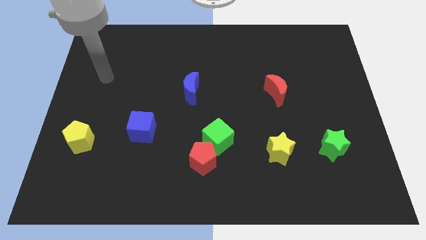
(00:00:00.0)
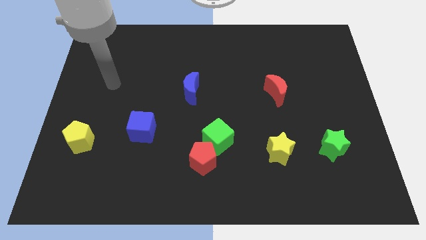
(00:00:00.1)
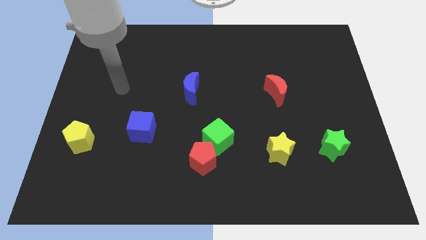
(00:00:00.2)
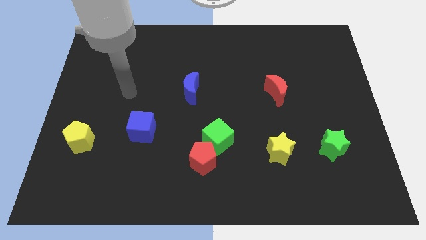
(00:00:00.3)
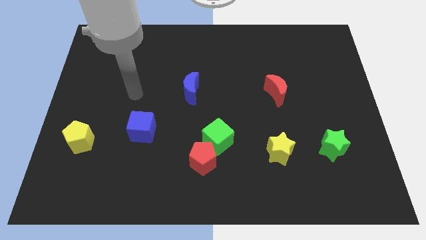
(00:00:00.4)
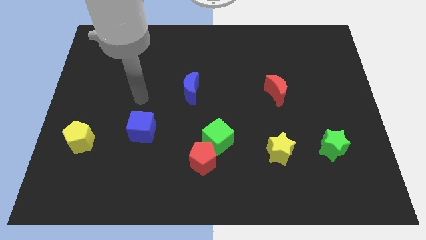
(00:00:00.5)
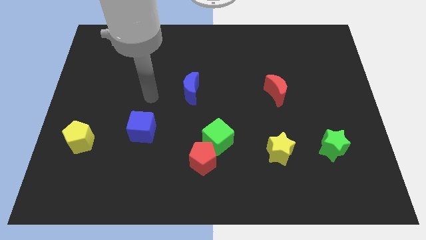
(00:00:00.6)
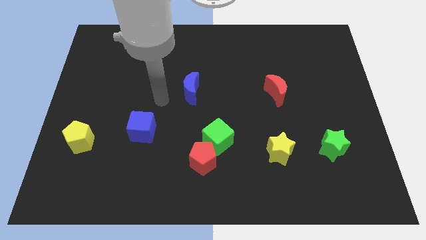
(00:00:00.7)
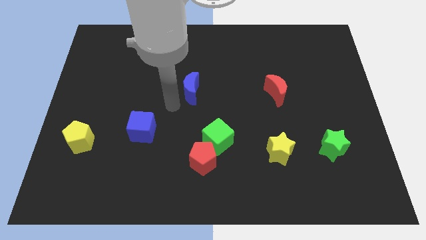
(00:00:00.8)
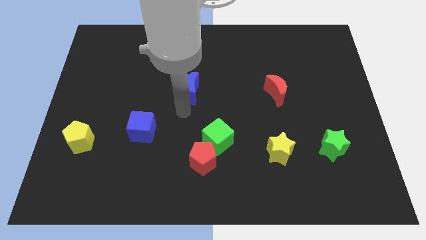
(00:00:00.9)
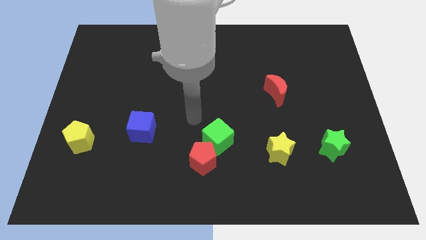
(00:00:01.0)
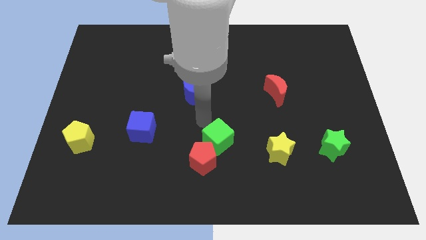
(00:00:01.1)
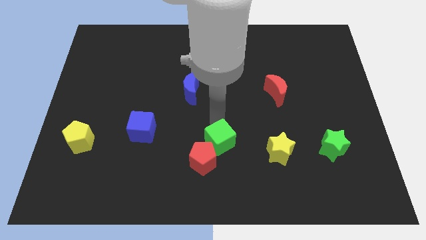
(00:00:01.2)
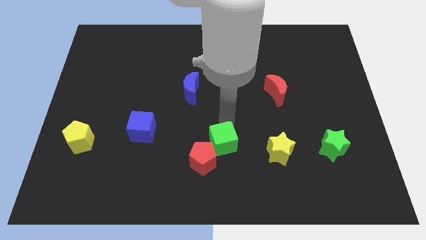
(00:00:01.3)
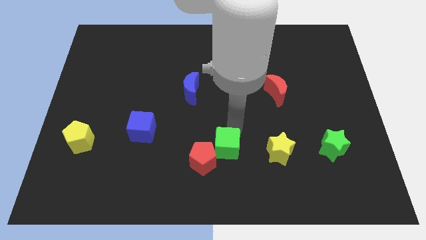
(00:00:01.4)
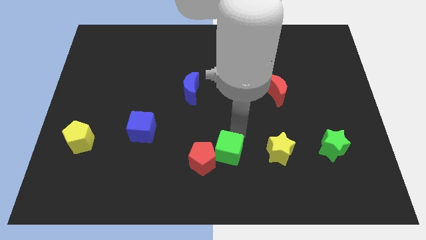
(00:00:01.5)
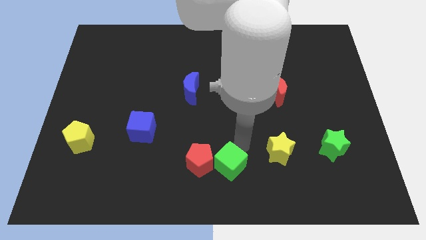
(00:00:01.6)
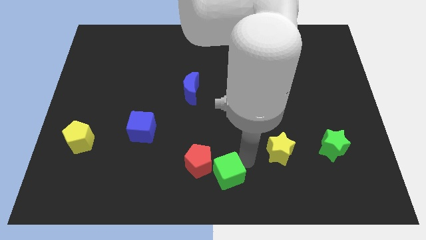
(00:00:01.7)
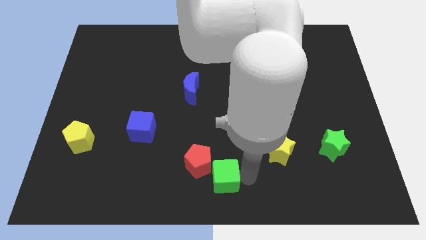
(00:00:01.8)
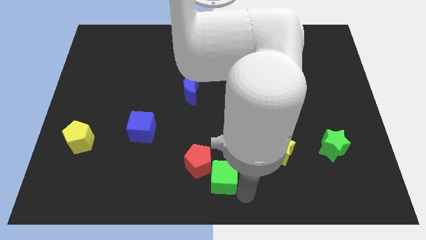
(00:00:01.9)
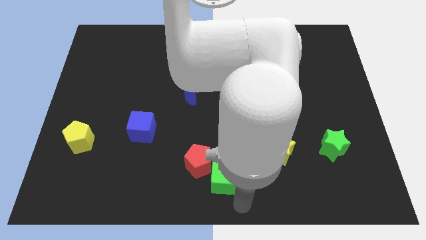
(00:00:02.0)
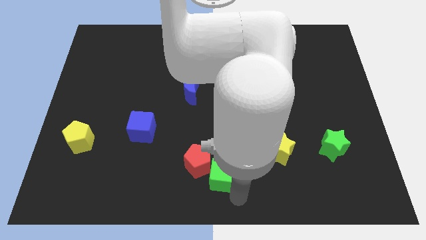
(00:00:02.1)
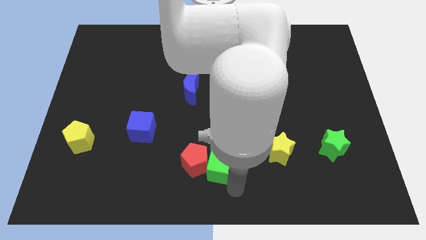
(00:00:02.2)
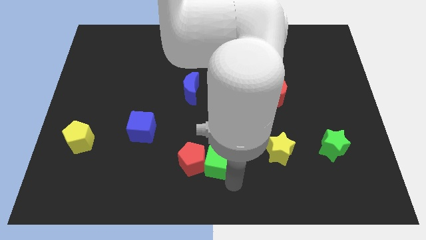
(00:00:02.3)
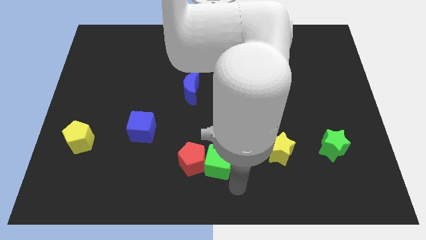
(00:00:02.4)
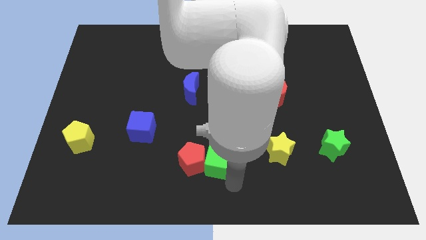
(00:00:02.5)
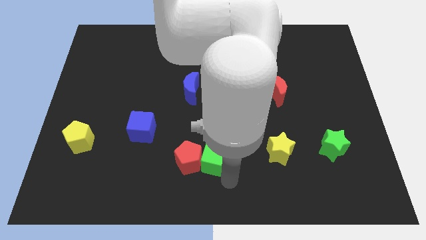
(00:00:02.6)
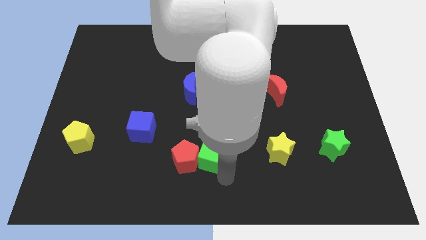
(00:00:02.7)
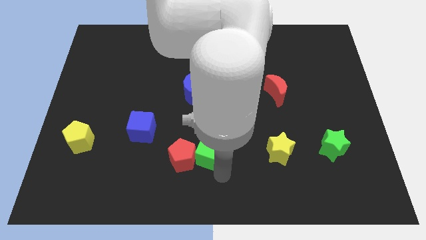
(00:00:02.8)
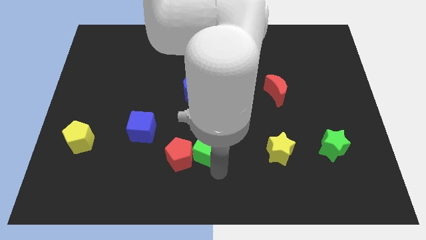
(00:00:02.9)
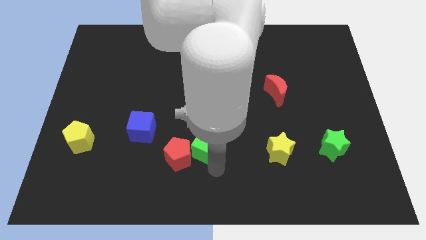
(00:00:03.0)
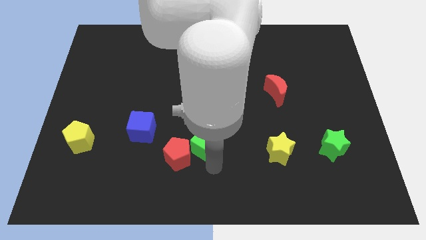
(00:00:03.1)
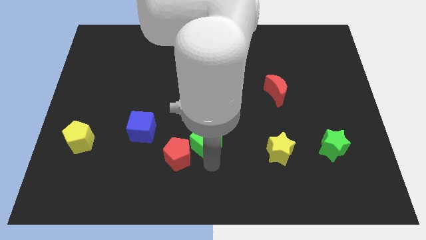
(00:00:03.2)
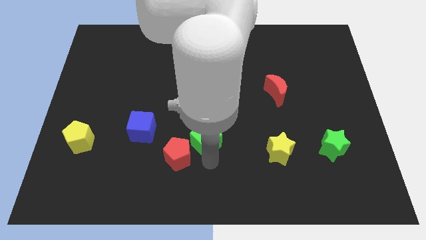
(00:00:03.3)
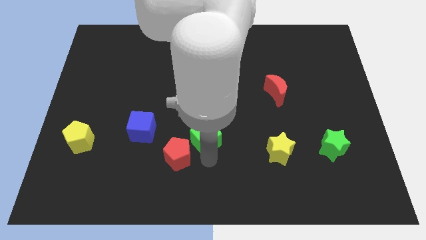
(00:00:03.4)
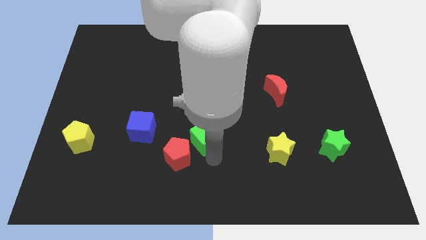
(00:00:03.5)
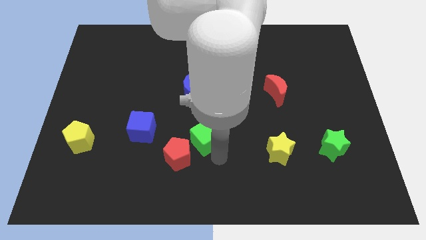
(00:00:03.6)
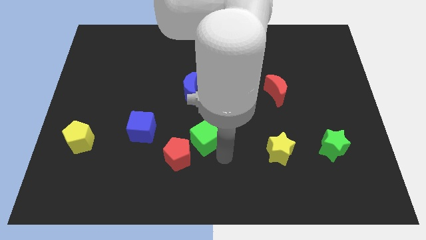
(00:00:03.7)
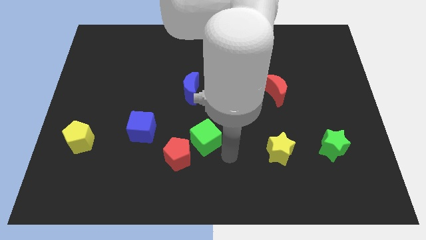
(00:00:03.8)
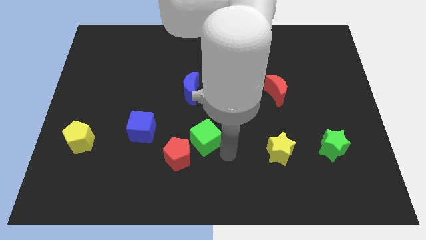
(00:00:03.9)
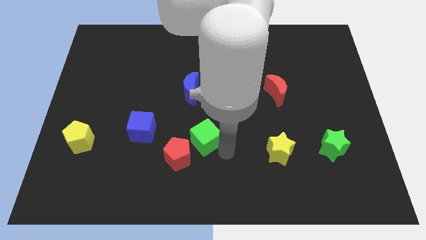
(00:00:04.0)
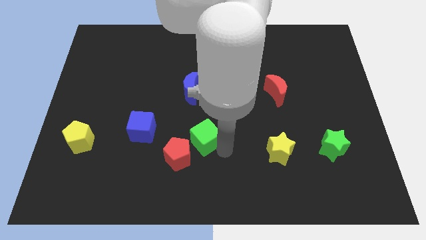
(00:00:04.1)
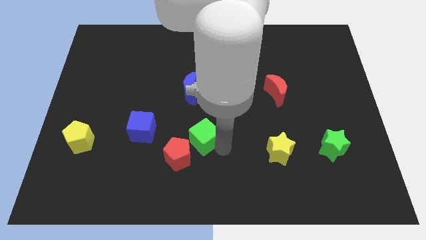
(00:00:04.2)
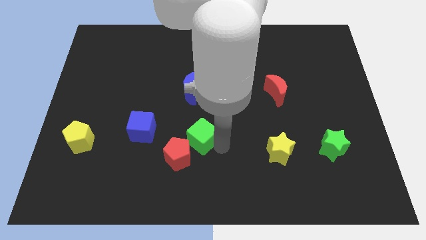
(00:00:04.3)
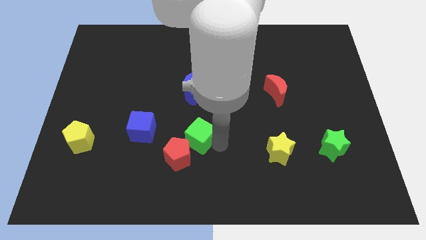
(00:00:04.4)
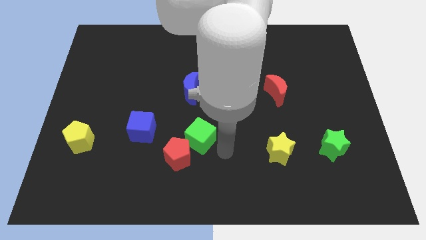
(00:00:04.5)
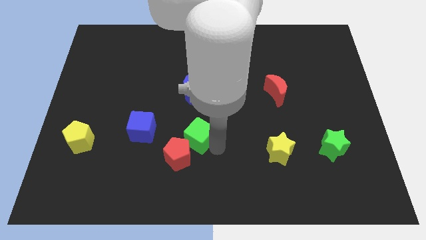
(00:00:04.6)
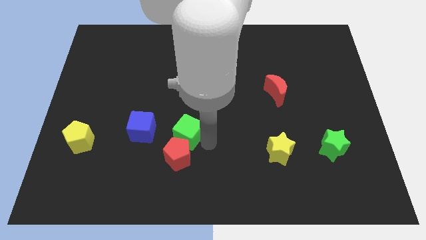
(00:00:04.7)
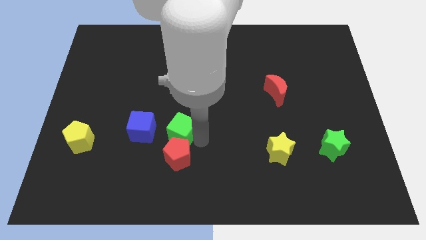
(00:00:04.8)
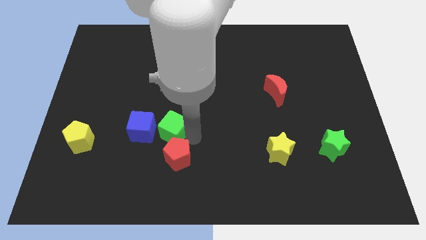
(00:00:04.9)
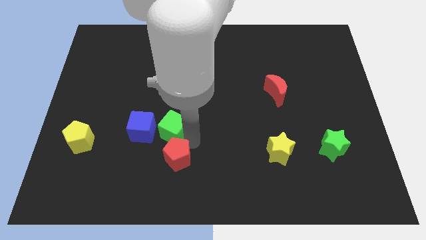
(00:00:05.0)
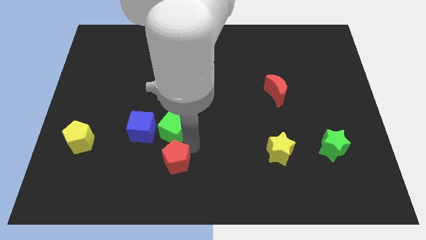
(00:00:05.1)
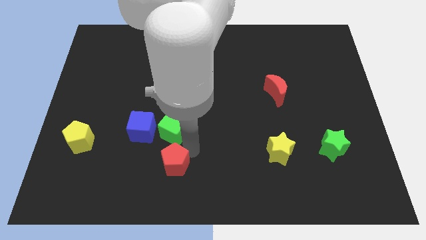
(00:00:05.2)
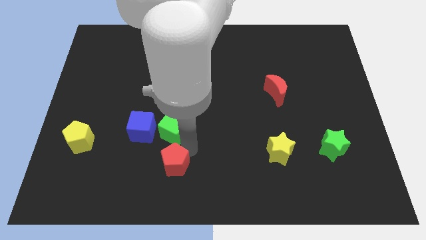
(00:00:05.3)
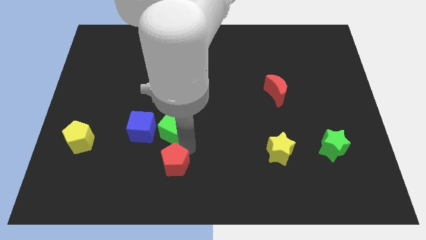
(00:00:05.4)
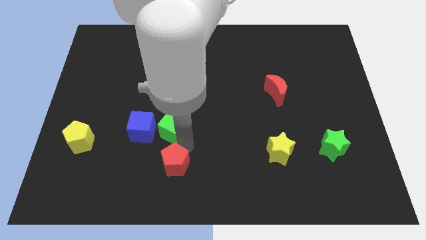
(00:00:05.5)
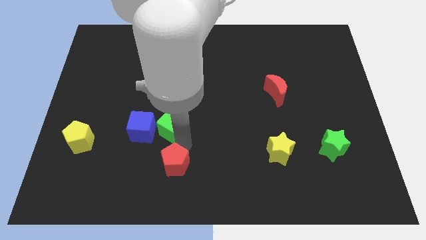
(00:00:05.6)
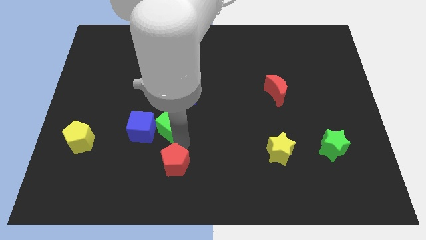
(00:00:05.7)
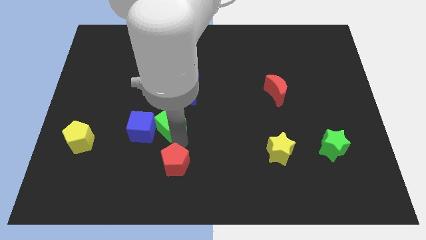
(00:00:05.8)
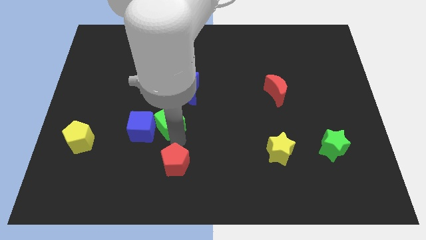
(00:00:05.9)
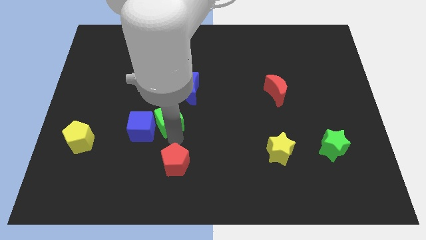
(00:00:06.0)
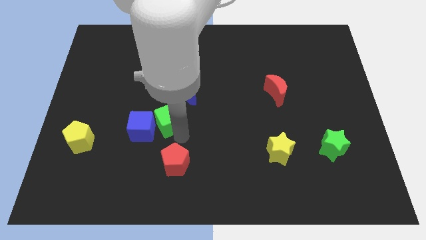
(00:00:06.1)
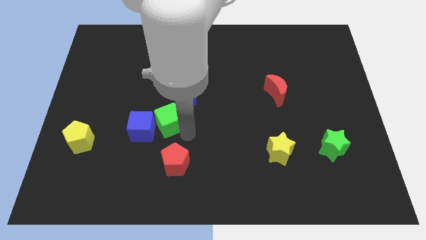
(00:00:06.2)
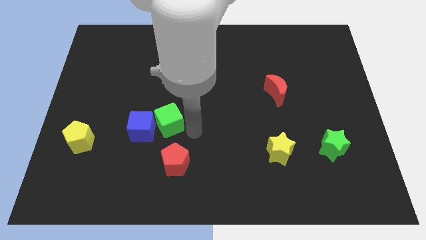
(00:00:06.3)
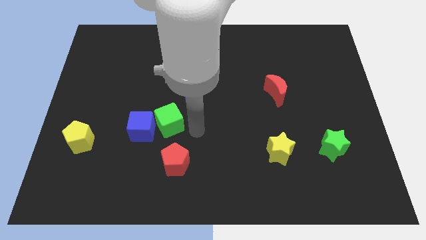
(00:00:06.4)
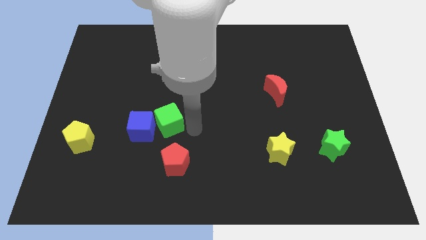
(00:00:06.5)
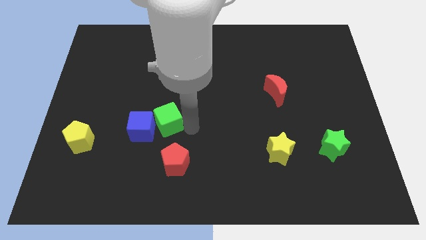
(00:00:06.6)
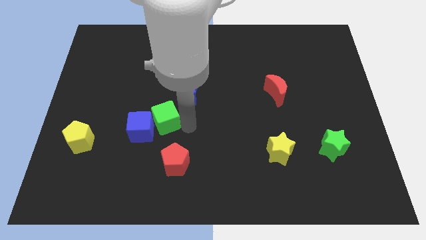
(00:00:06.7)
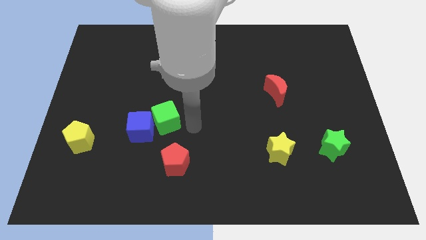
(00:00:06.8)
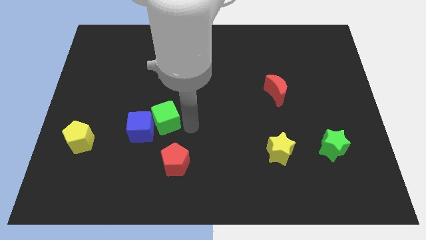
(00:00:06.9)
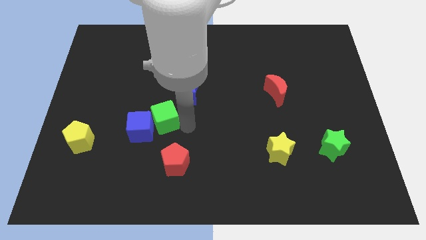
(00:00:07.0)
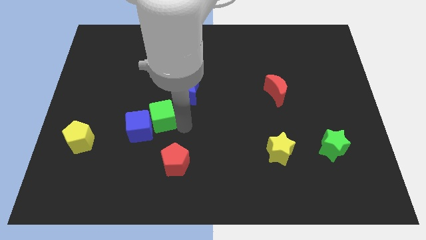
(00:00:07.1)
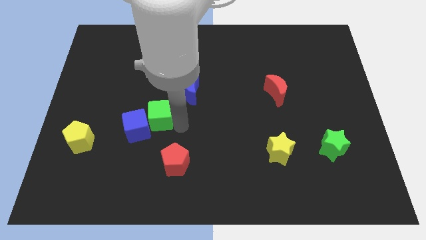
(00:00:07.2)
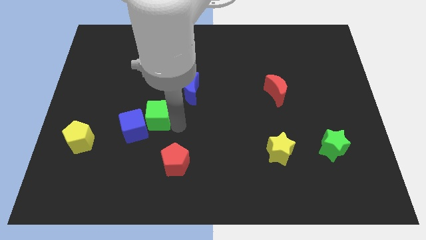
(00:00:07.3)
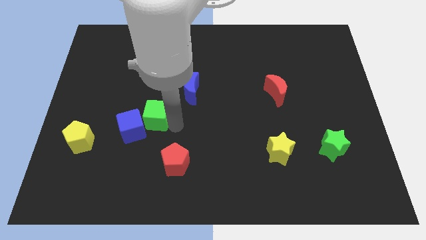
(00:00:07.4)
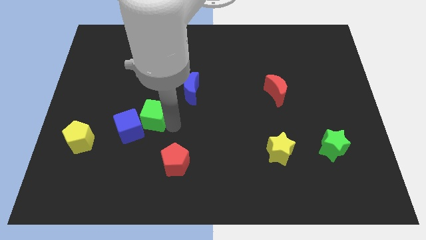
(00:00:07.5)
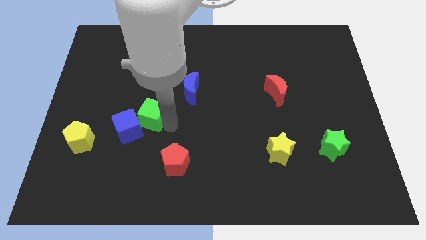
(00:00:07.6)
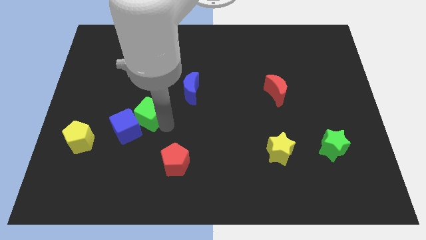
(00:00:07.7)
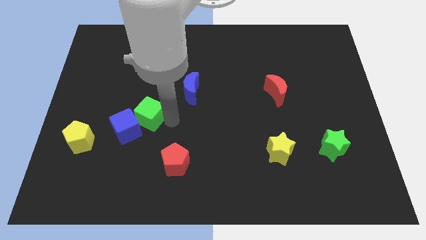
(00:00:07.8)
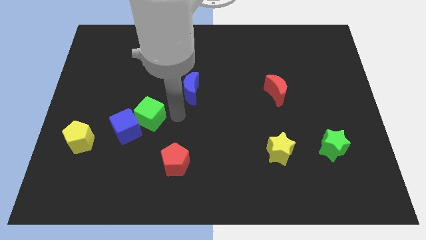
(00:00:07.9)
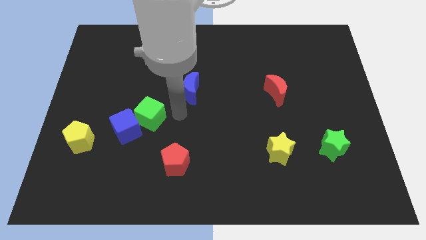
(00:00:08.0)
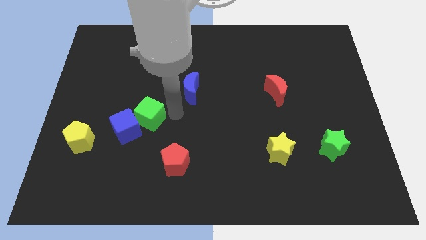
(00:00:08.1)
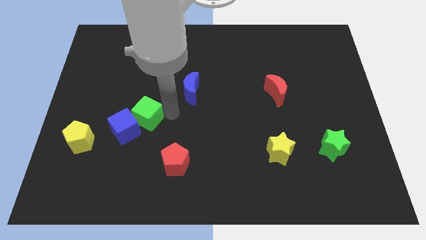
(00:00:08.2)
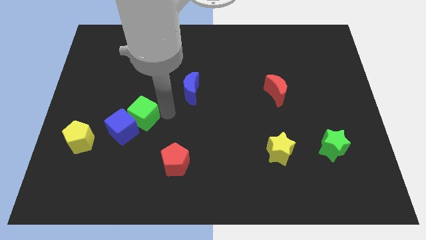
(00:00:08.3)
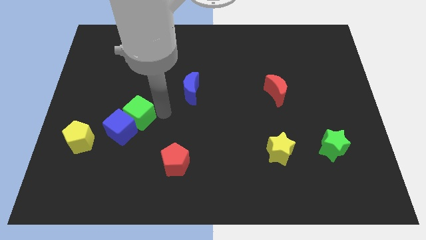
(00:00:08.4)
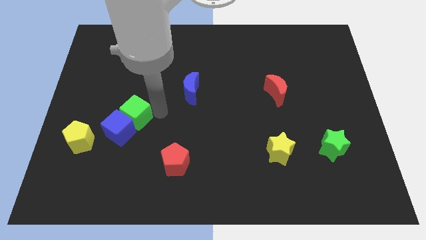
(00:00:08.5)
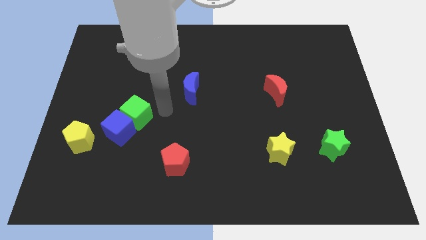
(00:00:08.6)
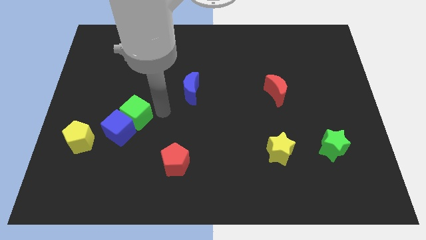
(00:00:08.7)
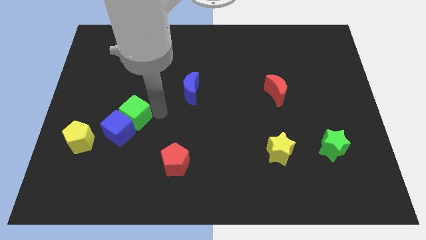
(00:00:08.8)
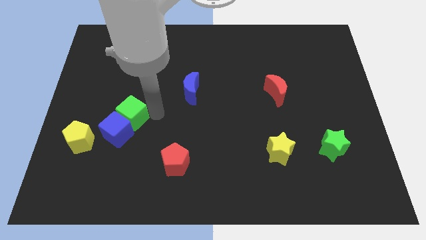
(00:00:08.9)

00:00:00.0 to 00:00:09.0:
put the green cube diagonally up and to the right of the yellow pentagon
